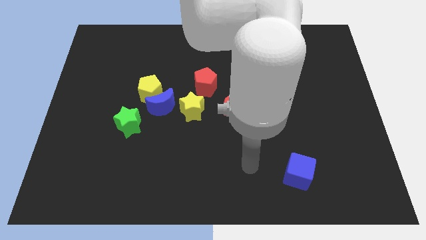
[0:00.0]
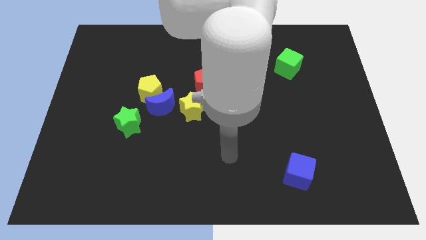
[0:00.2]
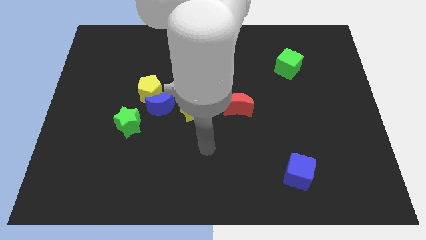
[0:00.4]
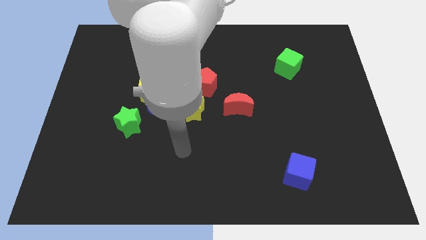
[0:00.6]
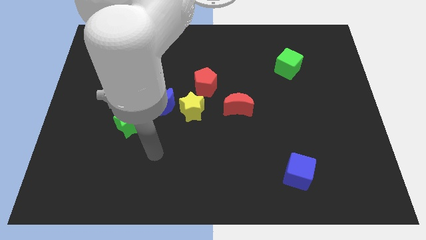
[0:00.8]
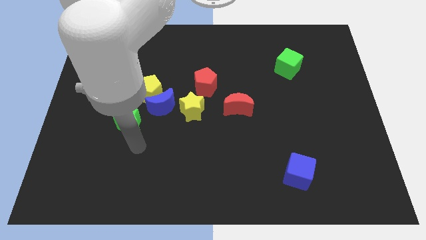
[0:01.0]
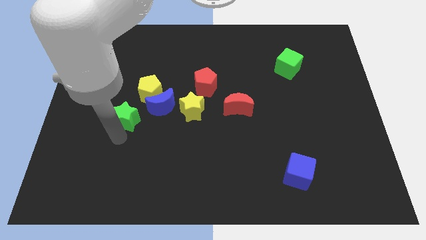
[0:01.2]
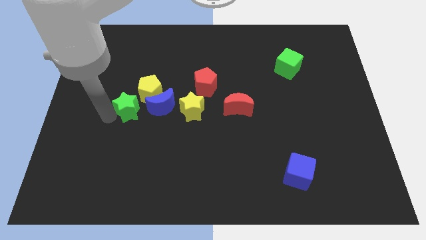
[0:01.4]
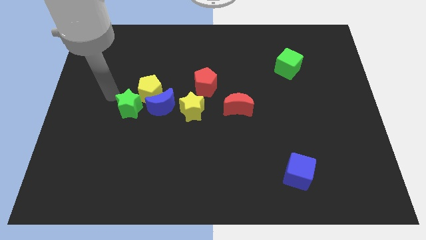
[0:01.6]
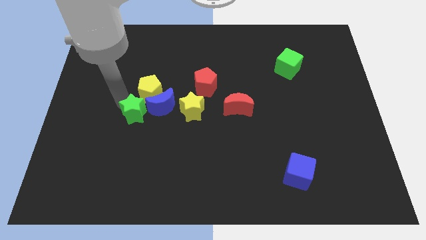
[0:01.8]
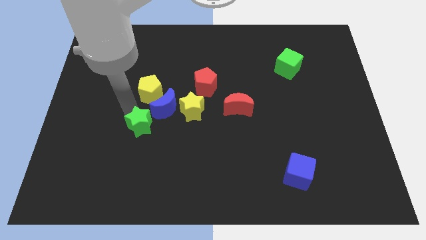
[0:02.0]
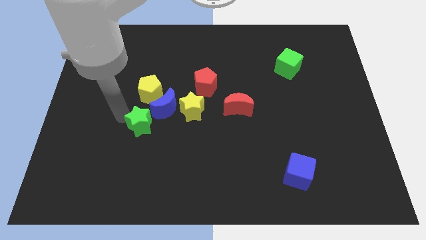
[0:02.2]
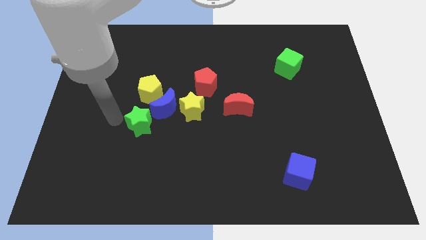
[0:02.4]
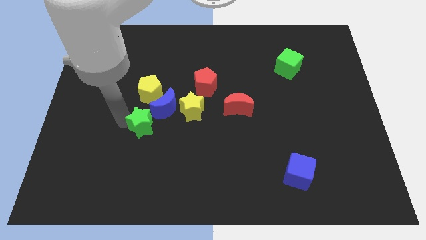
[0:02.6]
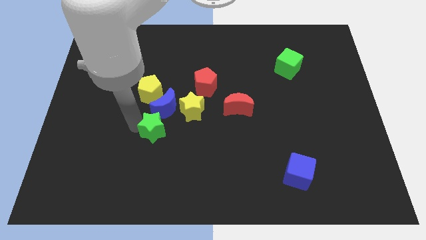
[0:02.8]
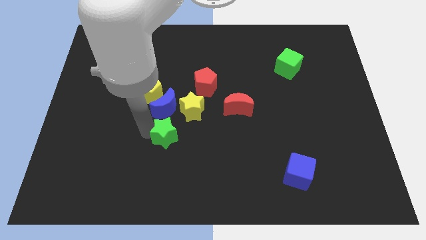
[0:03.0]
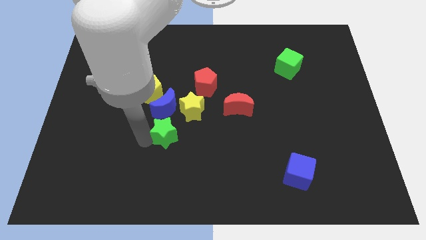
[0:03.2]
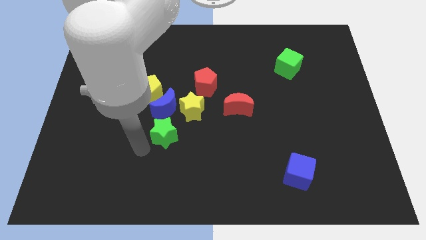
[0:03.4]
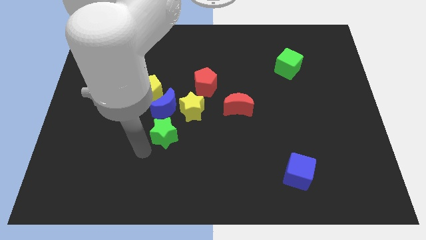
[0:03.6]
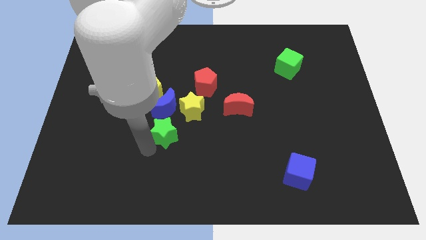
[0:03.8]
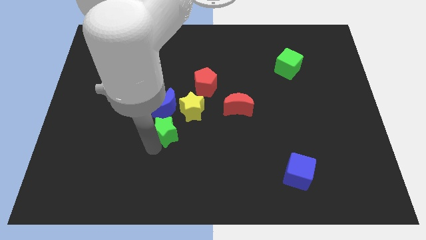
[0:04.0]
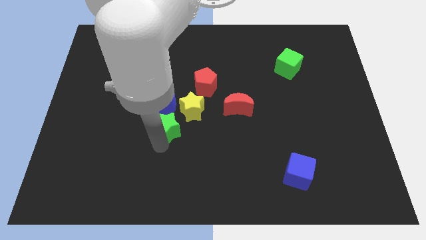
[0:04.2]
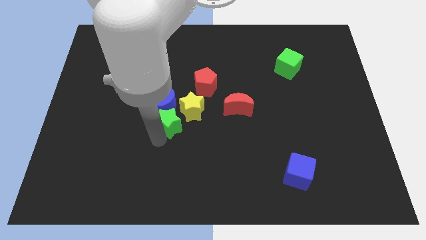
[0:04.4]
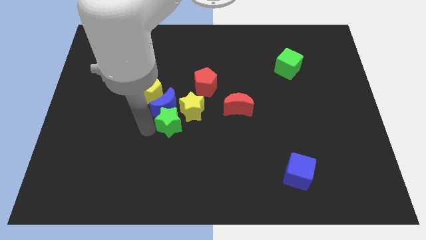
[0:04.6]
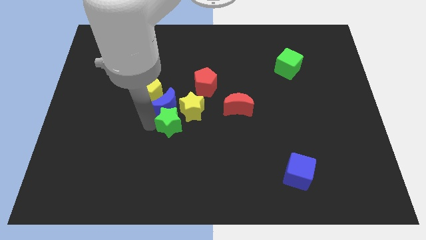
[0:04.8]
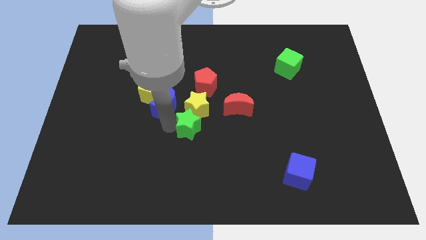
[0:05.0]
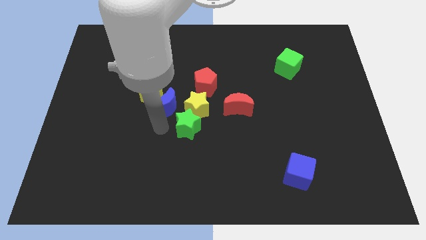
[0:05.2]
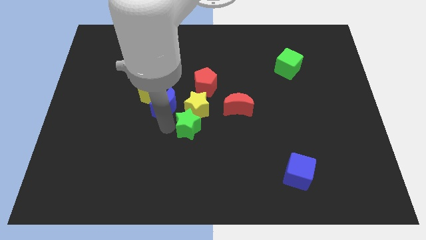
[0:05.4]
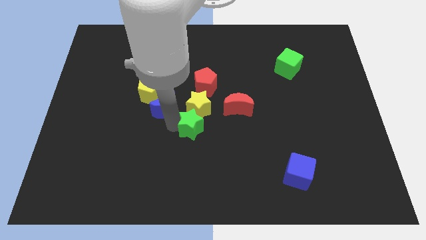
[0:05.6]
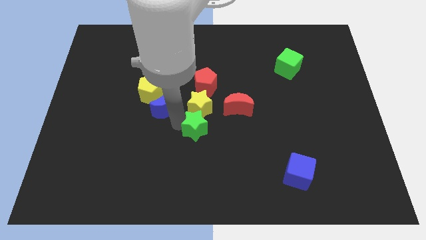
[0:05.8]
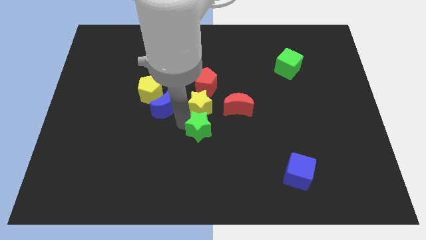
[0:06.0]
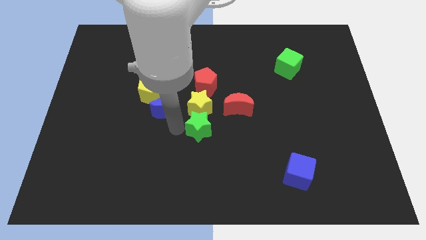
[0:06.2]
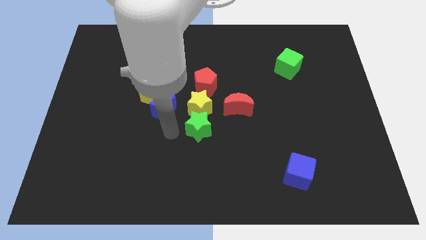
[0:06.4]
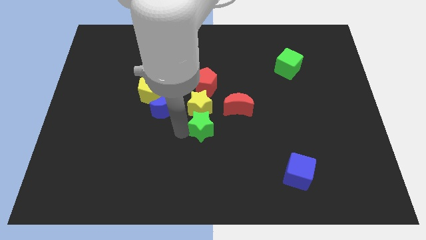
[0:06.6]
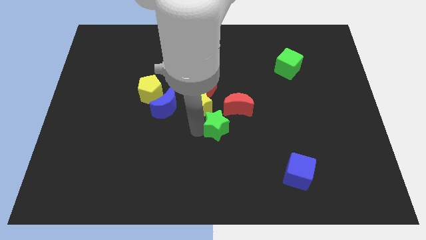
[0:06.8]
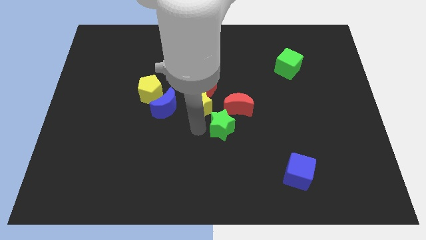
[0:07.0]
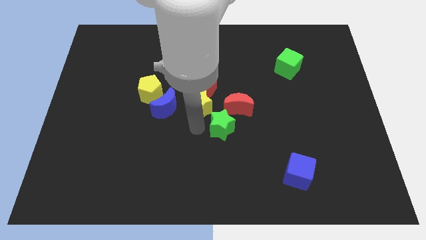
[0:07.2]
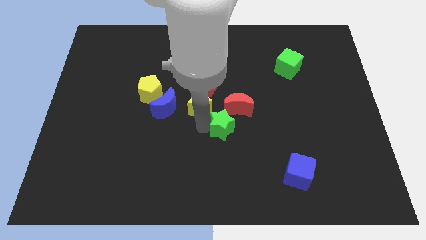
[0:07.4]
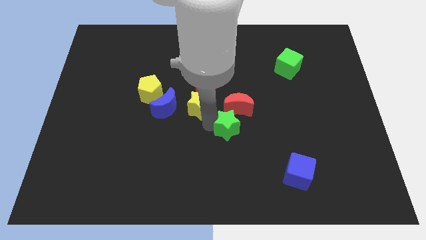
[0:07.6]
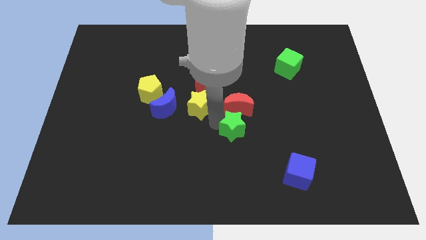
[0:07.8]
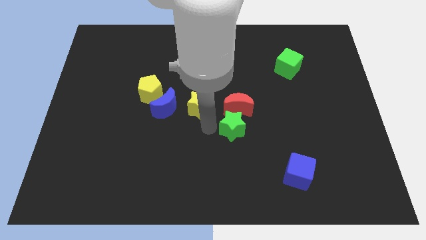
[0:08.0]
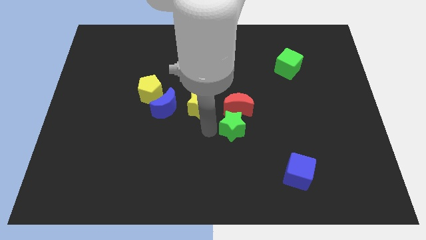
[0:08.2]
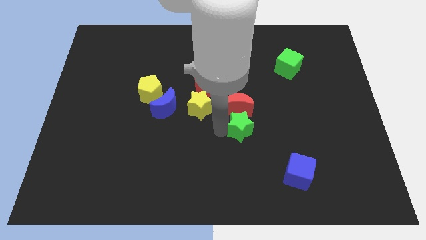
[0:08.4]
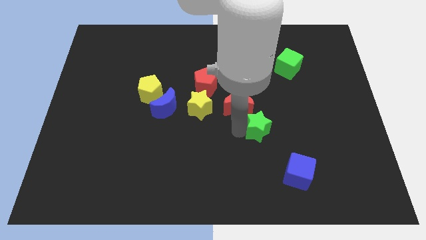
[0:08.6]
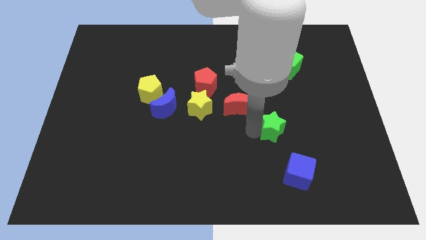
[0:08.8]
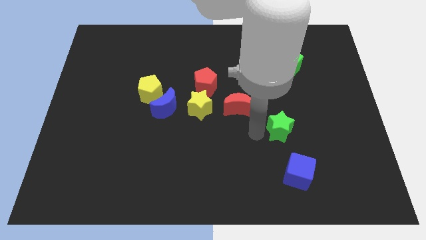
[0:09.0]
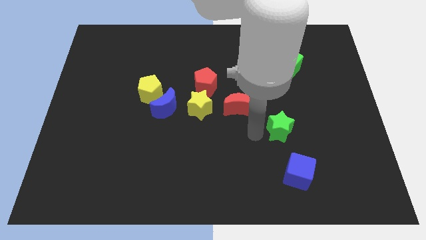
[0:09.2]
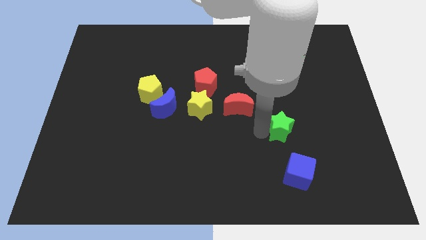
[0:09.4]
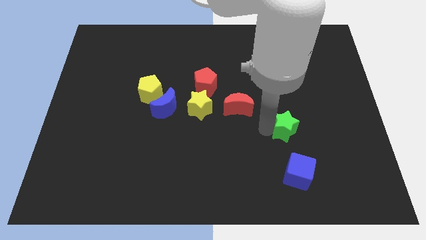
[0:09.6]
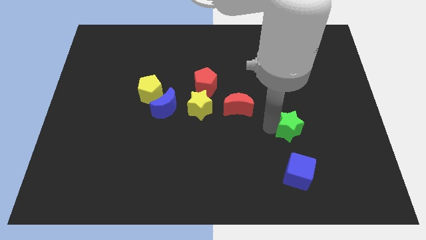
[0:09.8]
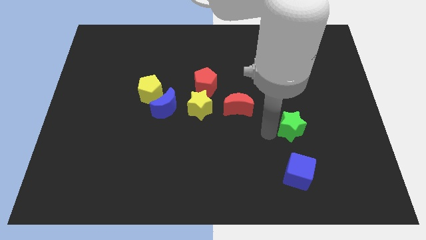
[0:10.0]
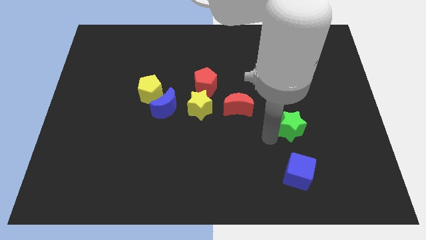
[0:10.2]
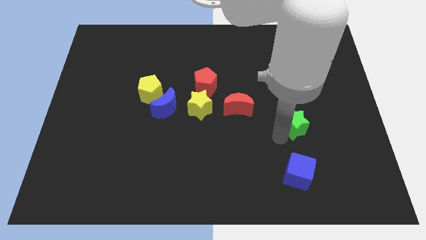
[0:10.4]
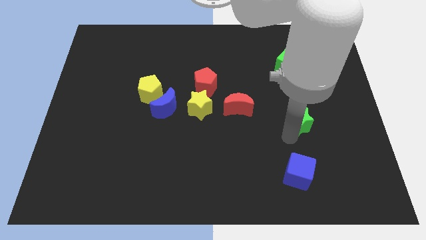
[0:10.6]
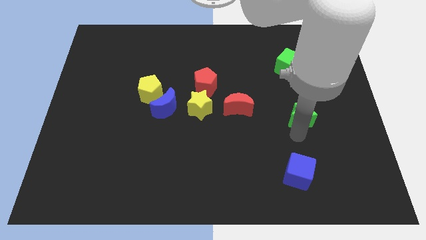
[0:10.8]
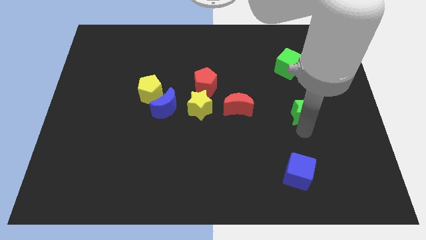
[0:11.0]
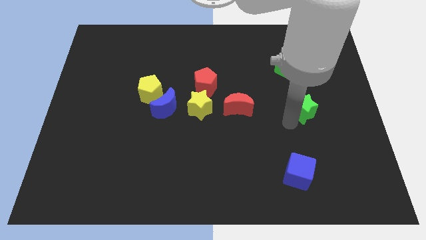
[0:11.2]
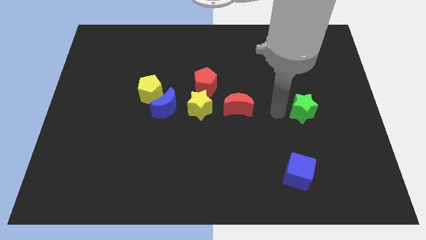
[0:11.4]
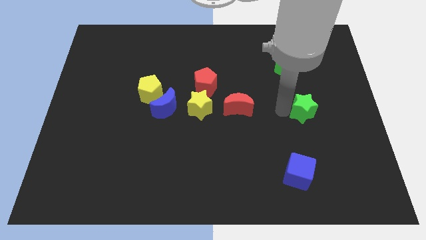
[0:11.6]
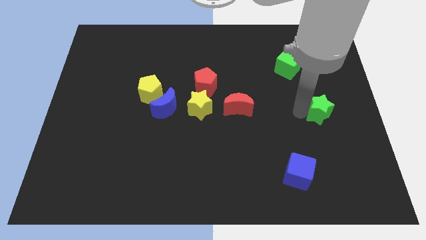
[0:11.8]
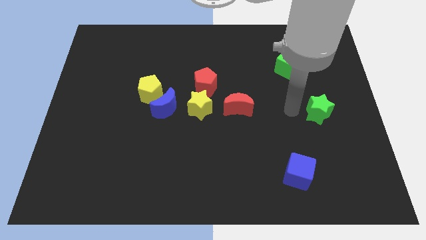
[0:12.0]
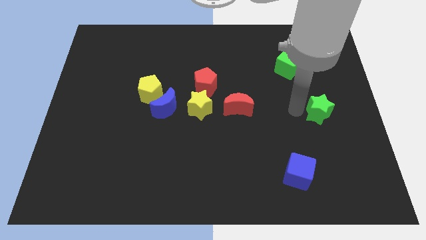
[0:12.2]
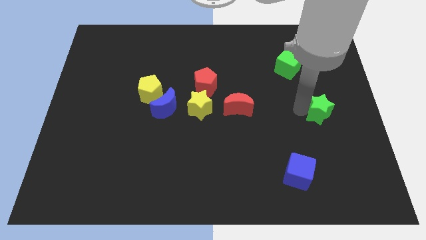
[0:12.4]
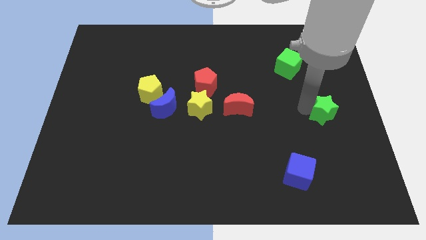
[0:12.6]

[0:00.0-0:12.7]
move the green star to the right side of the board
